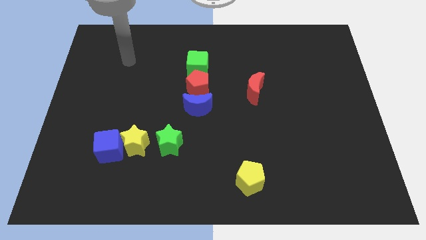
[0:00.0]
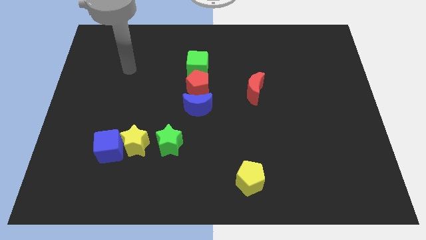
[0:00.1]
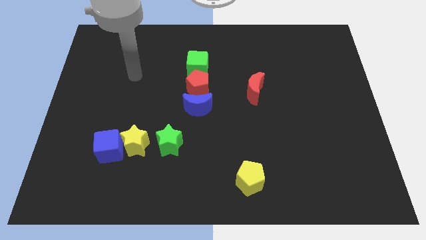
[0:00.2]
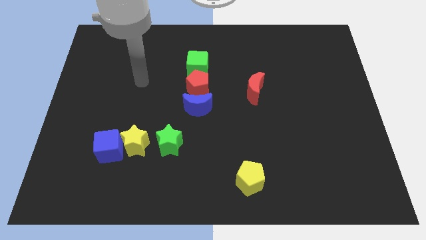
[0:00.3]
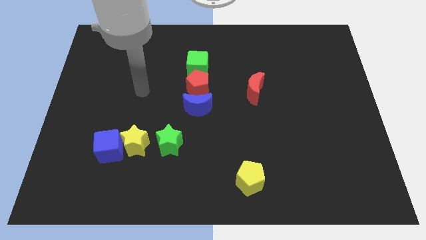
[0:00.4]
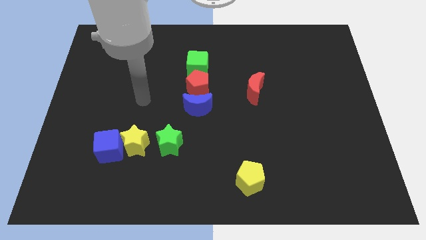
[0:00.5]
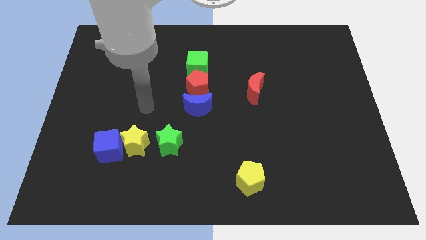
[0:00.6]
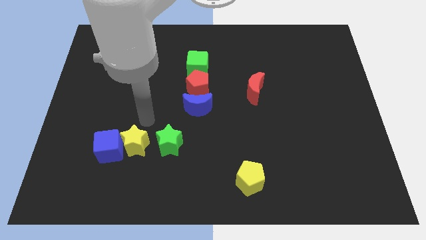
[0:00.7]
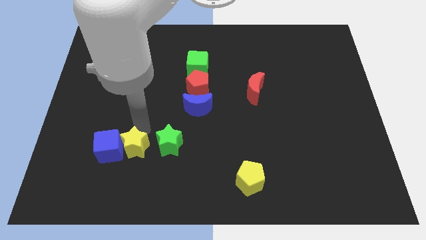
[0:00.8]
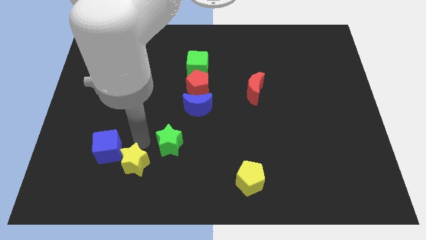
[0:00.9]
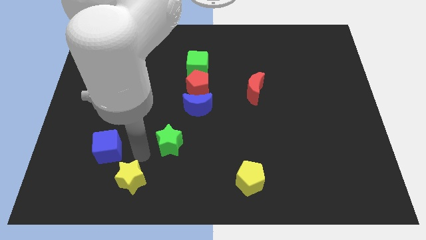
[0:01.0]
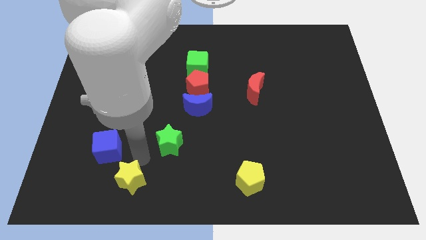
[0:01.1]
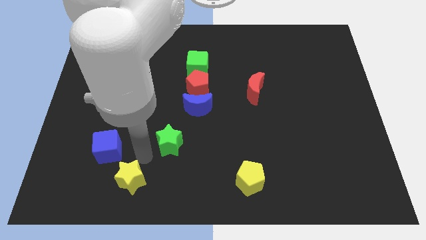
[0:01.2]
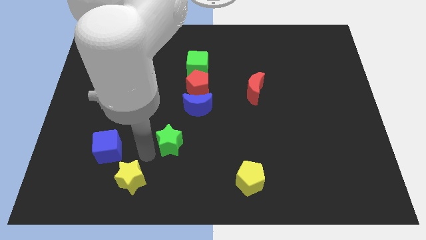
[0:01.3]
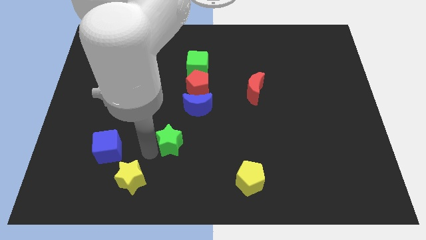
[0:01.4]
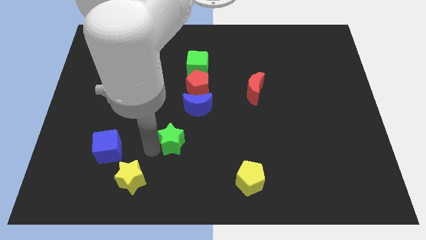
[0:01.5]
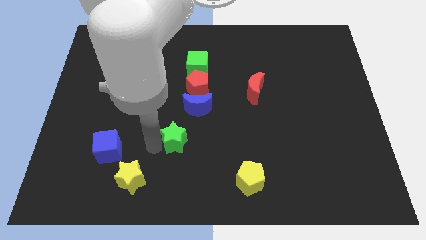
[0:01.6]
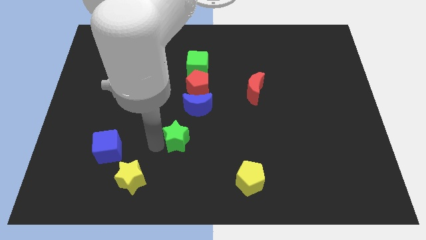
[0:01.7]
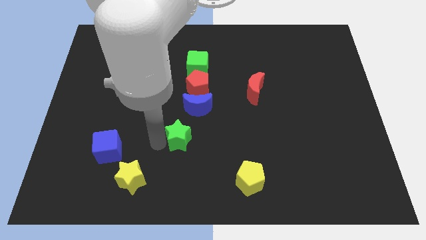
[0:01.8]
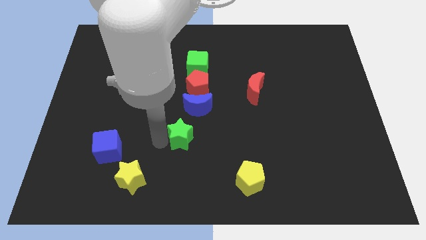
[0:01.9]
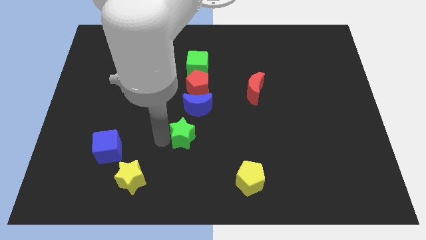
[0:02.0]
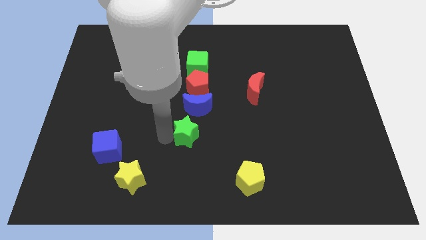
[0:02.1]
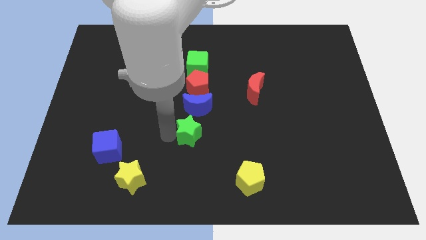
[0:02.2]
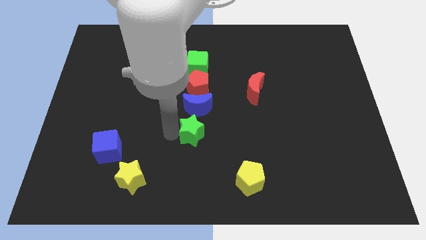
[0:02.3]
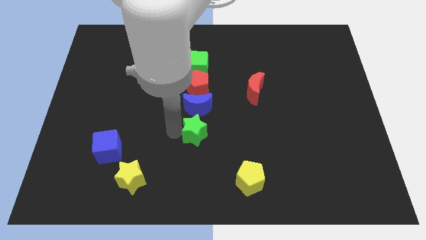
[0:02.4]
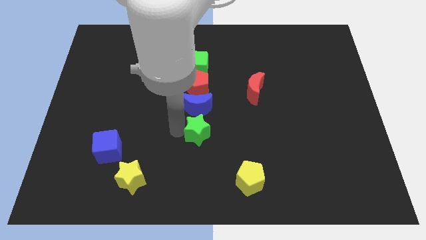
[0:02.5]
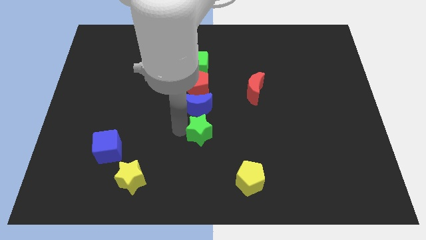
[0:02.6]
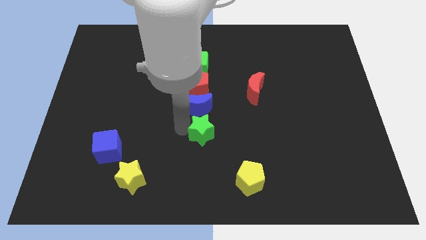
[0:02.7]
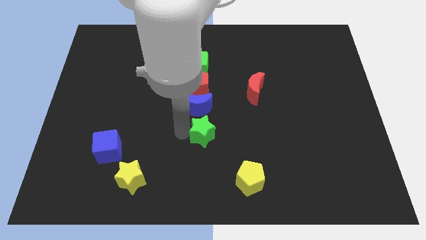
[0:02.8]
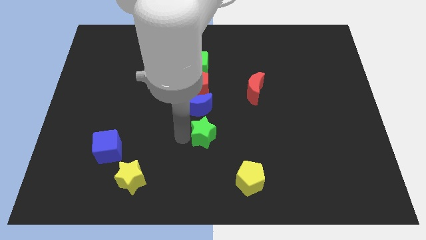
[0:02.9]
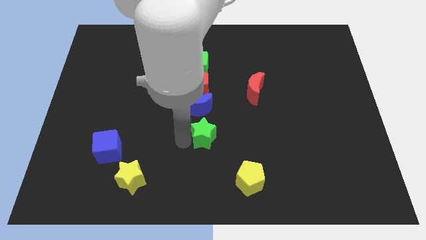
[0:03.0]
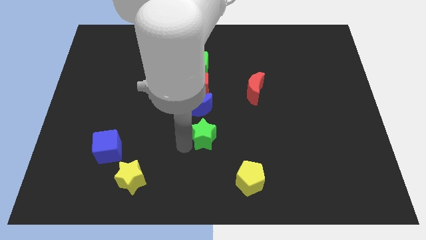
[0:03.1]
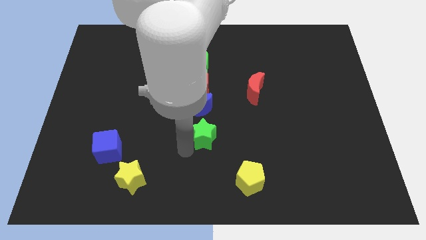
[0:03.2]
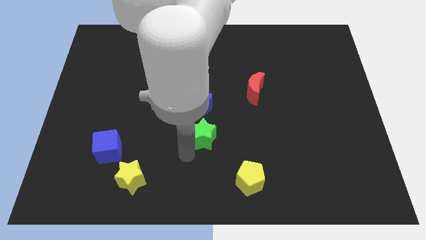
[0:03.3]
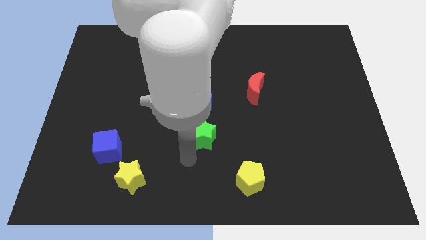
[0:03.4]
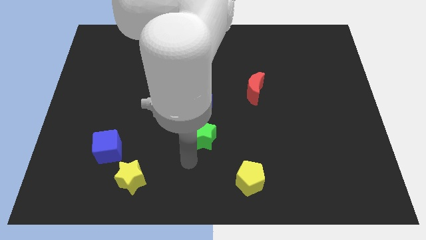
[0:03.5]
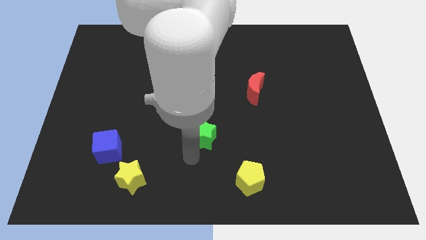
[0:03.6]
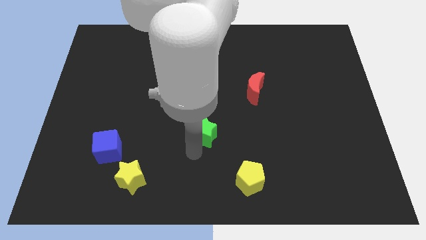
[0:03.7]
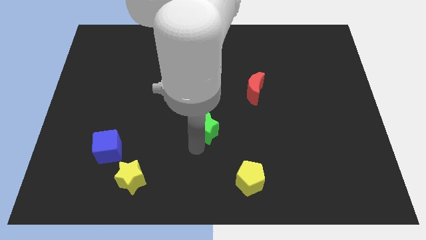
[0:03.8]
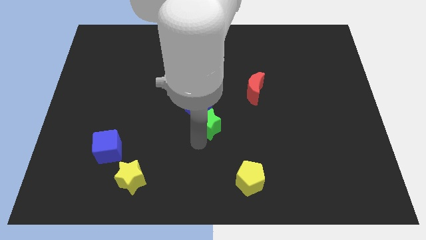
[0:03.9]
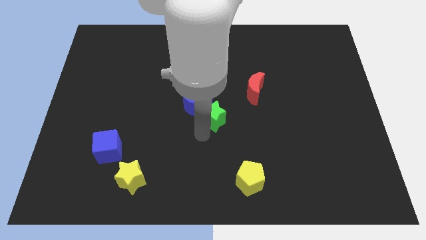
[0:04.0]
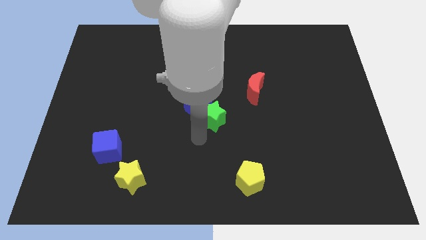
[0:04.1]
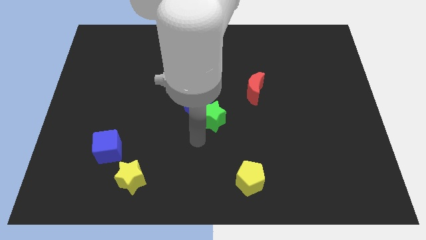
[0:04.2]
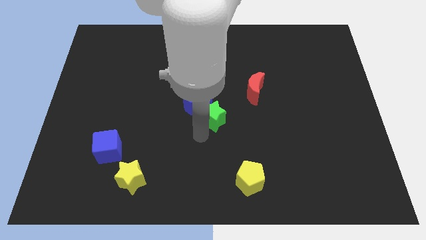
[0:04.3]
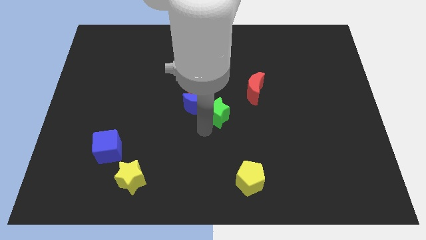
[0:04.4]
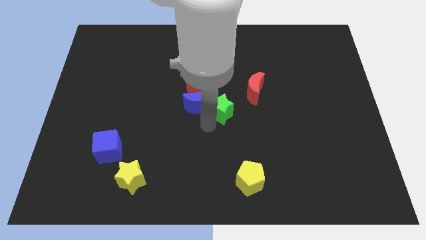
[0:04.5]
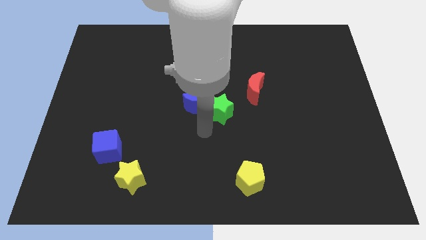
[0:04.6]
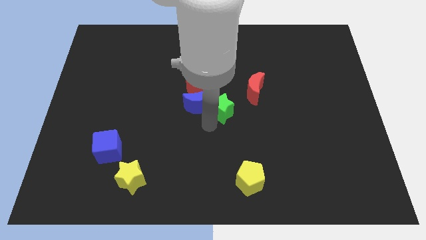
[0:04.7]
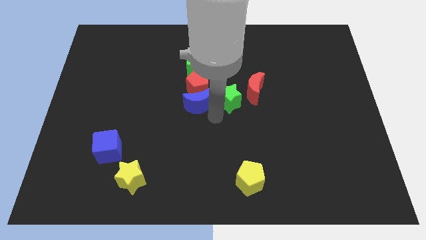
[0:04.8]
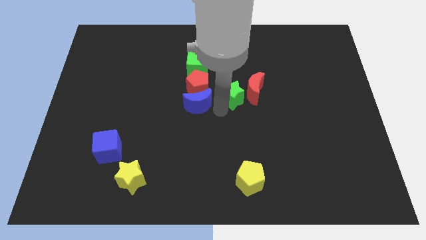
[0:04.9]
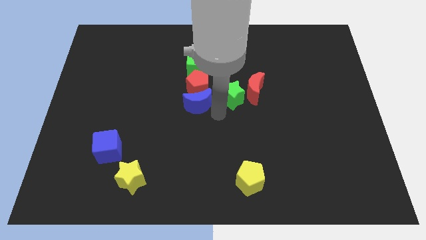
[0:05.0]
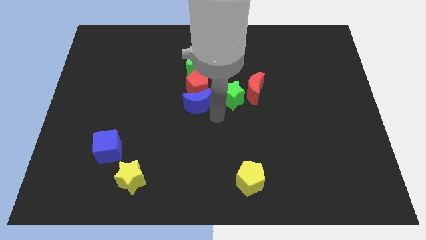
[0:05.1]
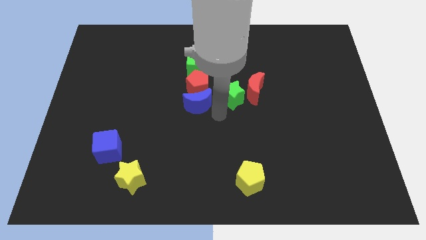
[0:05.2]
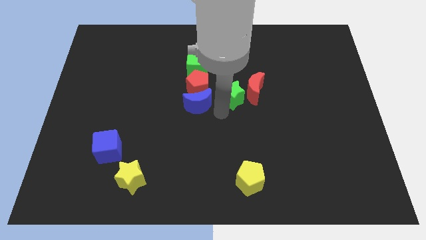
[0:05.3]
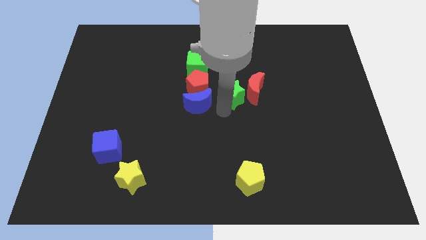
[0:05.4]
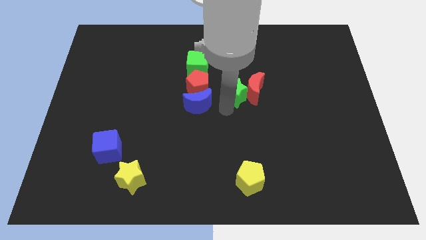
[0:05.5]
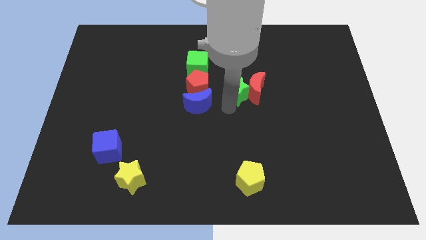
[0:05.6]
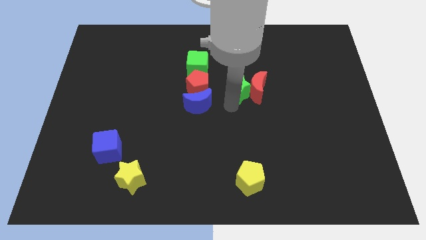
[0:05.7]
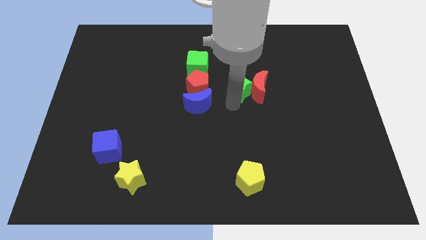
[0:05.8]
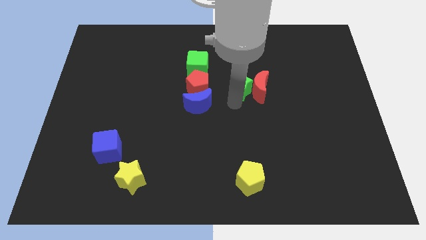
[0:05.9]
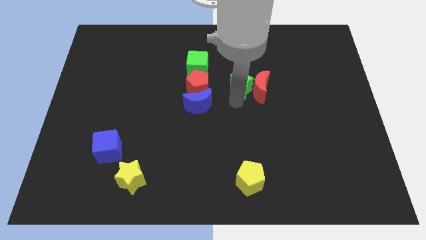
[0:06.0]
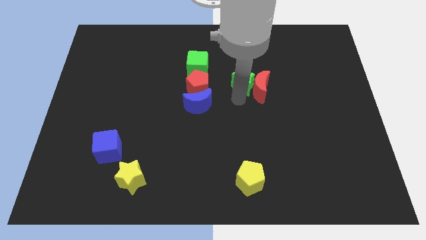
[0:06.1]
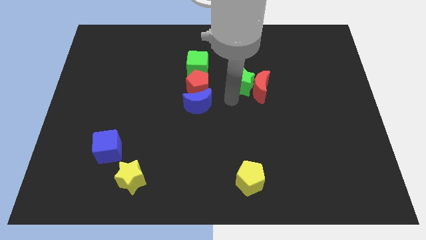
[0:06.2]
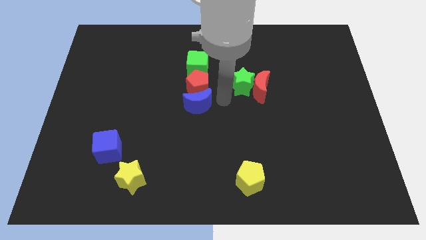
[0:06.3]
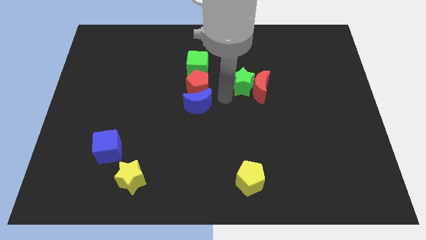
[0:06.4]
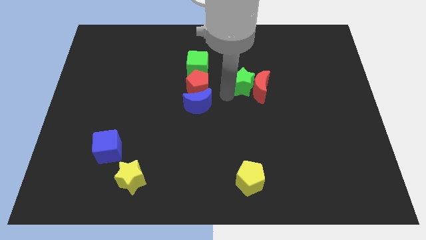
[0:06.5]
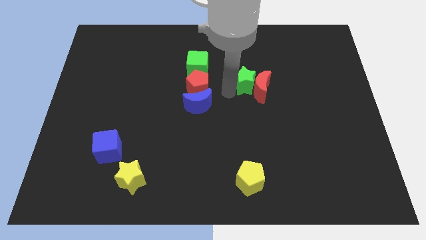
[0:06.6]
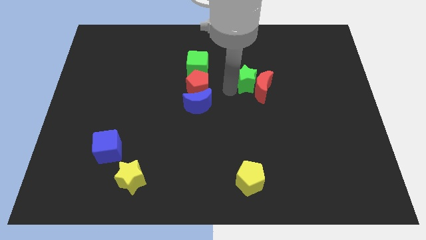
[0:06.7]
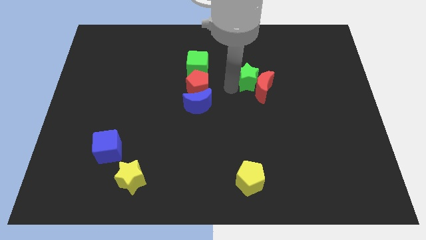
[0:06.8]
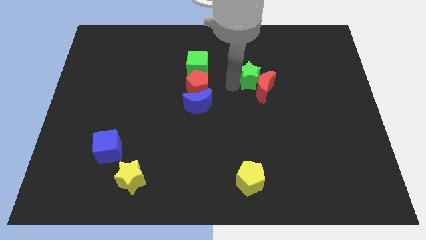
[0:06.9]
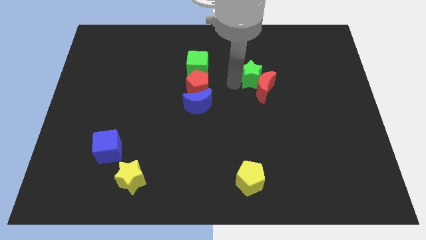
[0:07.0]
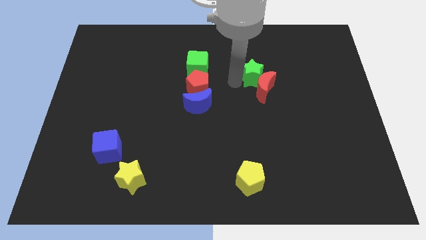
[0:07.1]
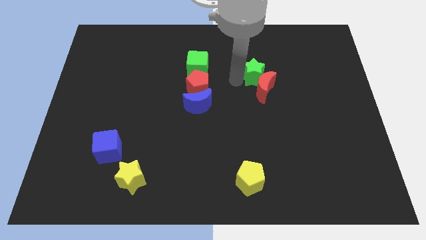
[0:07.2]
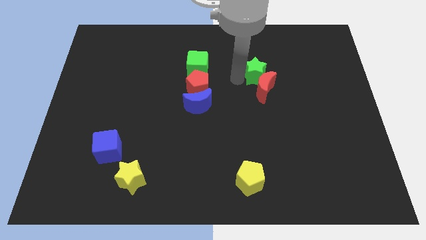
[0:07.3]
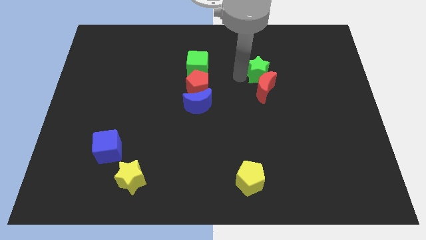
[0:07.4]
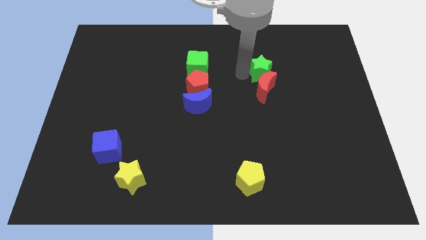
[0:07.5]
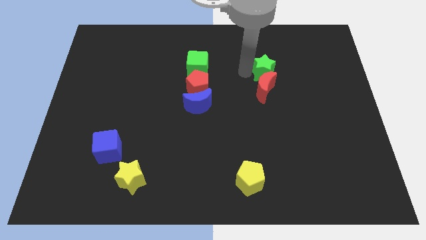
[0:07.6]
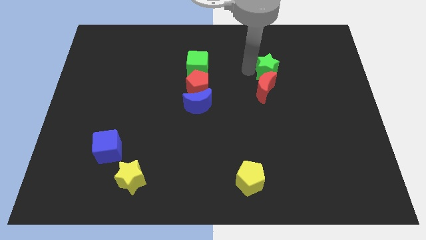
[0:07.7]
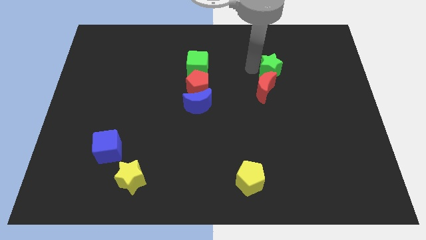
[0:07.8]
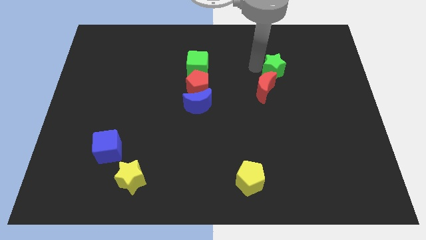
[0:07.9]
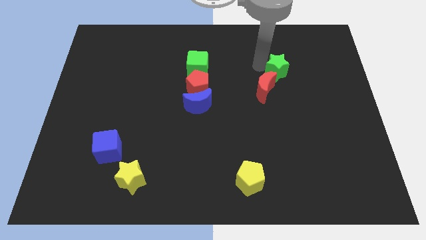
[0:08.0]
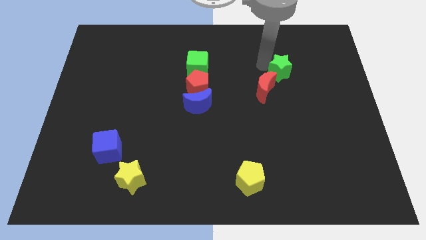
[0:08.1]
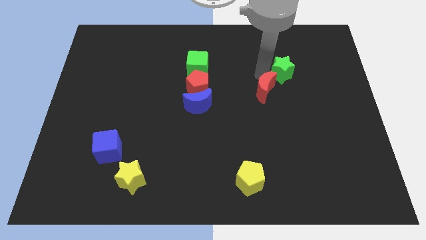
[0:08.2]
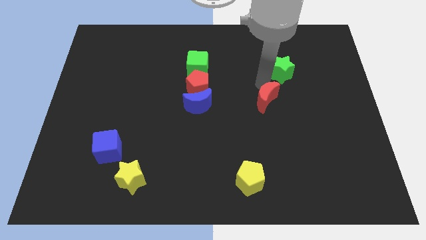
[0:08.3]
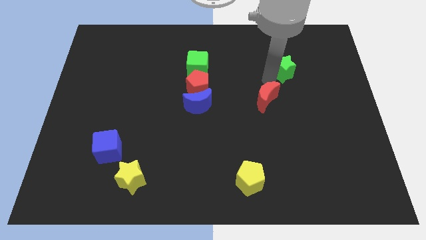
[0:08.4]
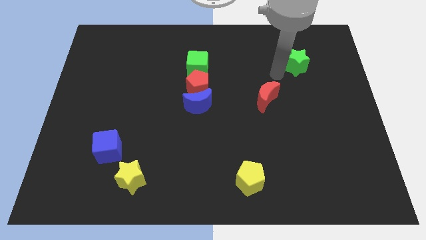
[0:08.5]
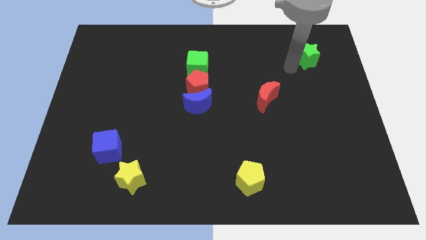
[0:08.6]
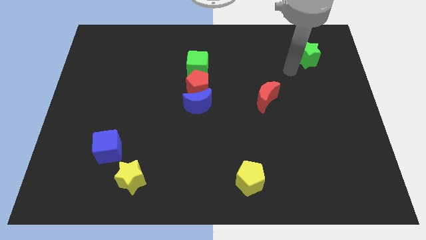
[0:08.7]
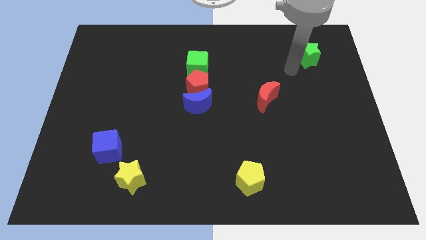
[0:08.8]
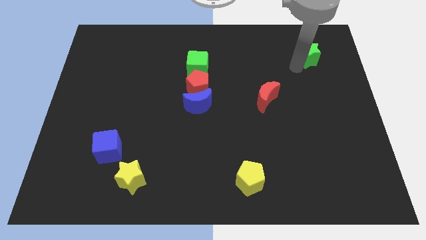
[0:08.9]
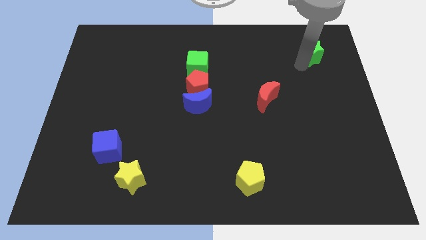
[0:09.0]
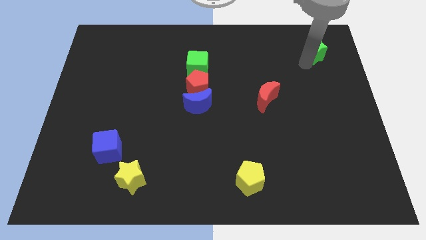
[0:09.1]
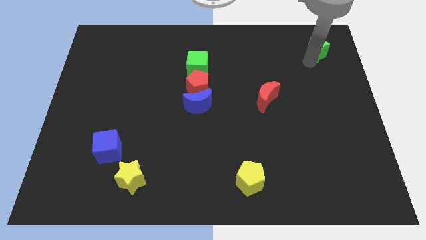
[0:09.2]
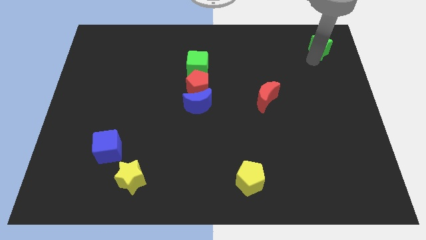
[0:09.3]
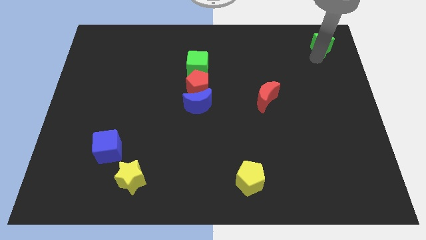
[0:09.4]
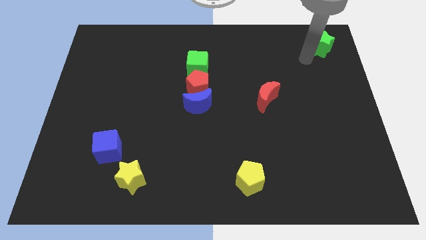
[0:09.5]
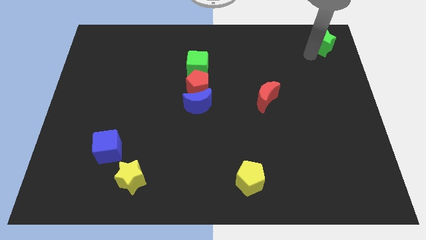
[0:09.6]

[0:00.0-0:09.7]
put the green star to the top right
